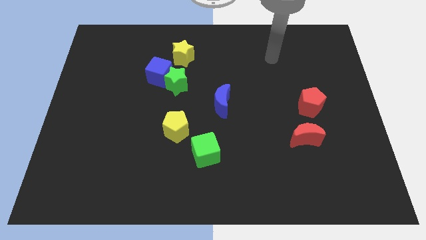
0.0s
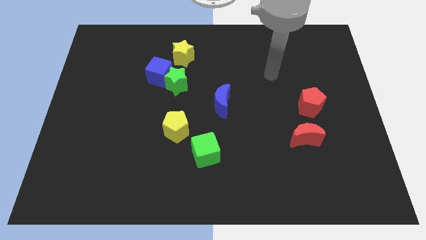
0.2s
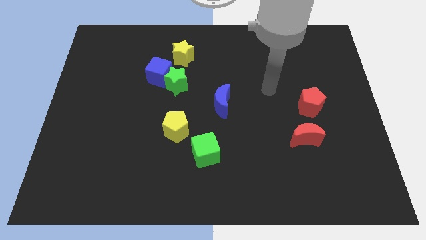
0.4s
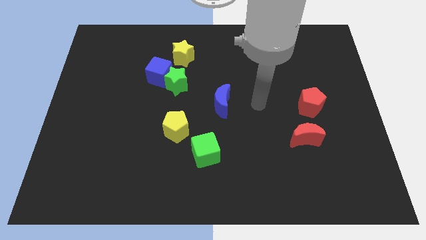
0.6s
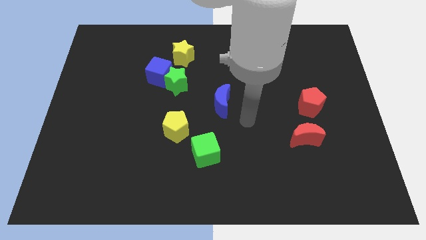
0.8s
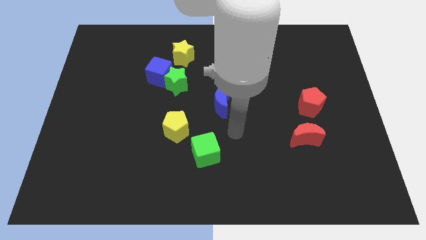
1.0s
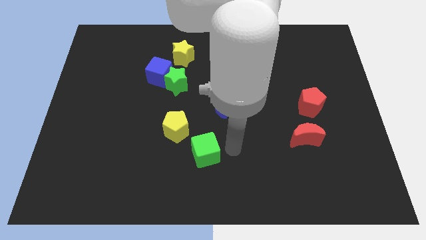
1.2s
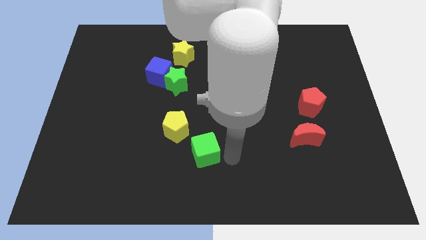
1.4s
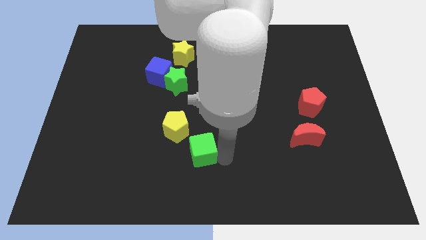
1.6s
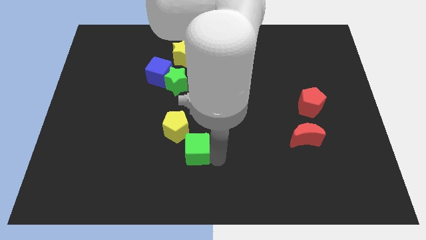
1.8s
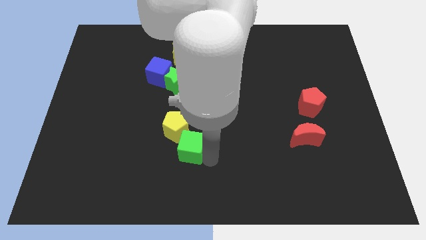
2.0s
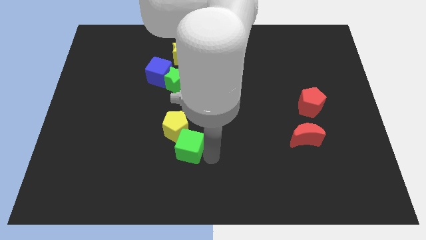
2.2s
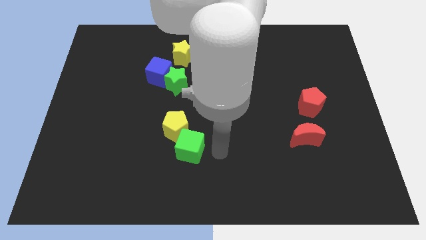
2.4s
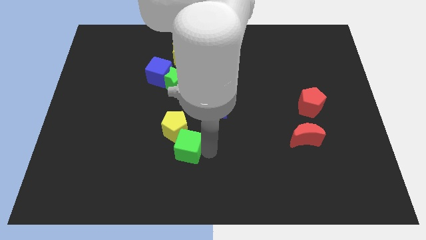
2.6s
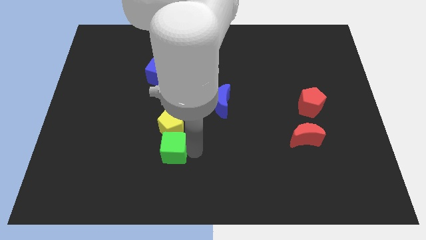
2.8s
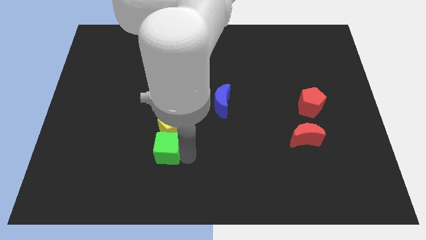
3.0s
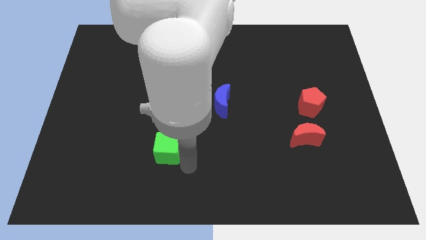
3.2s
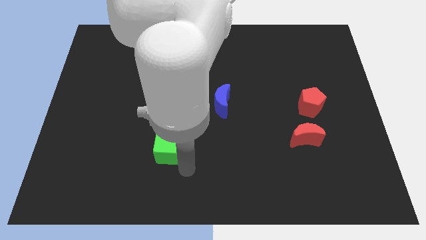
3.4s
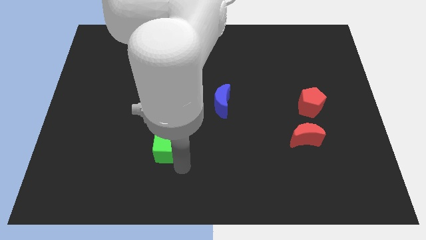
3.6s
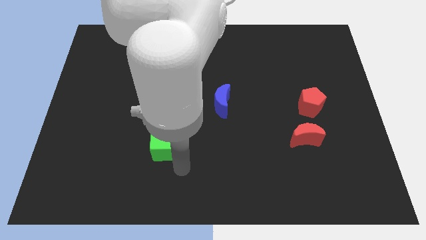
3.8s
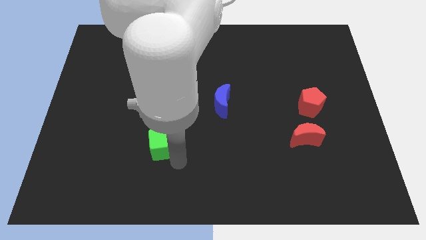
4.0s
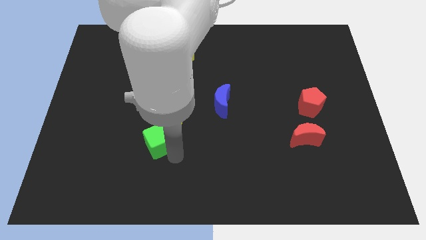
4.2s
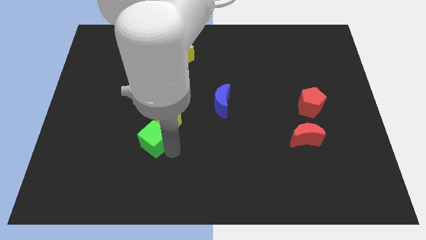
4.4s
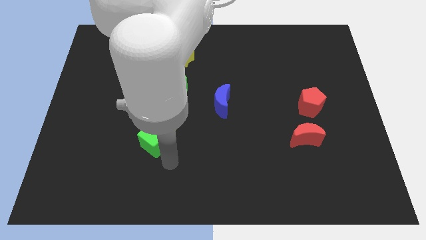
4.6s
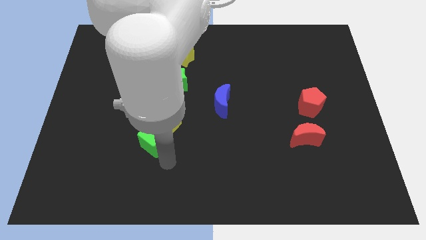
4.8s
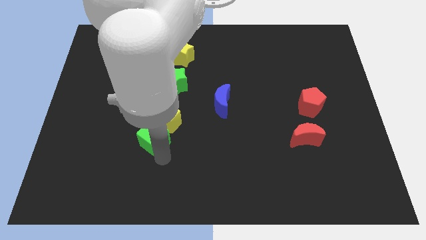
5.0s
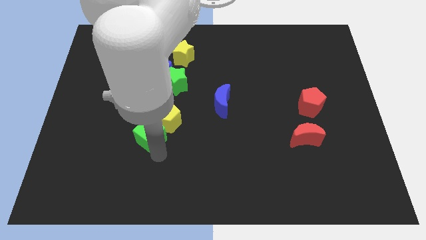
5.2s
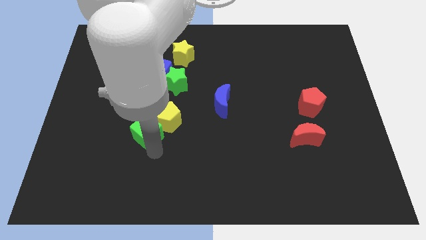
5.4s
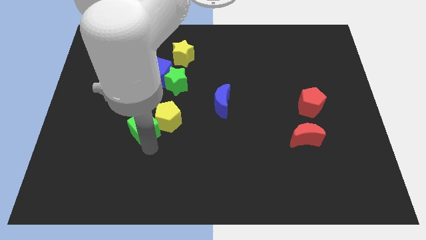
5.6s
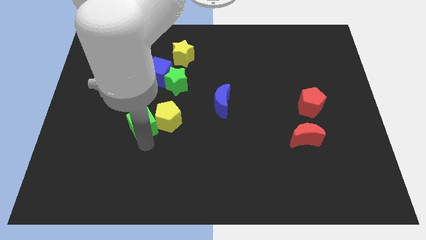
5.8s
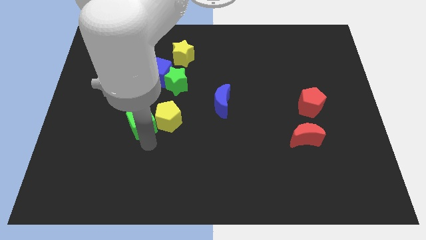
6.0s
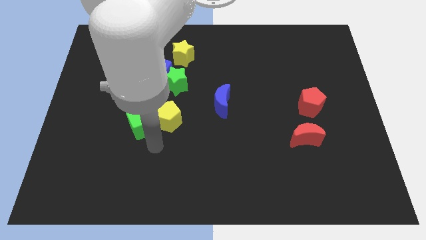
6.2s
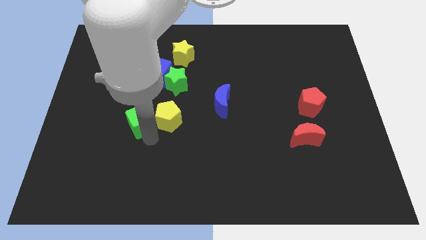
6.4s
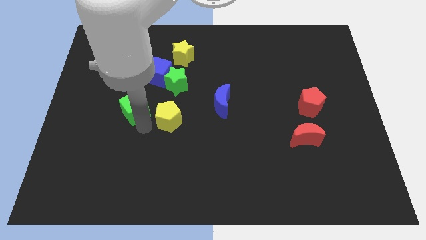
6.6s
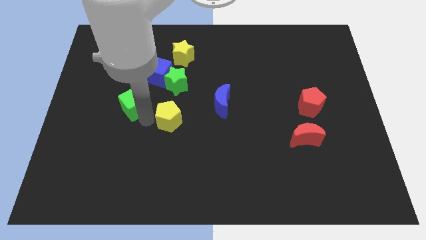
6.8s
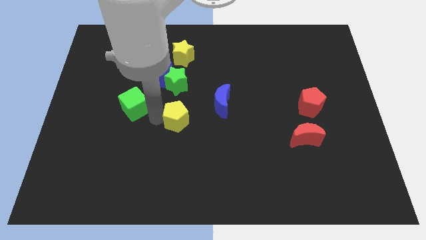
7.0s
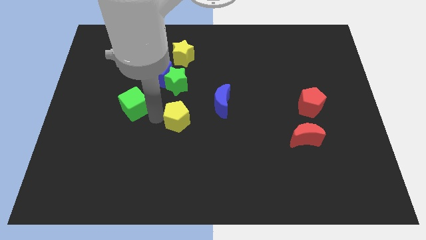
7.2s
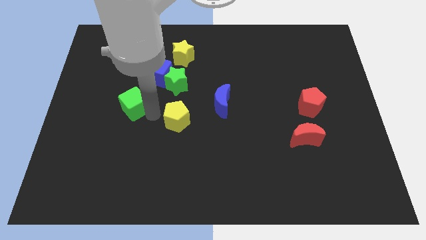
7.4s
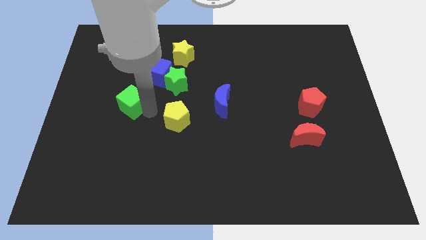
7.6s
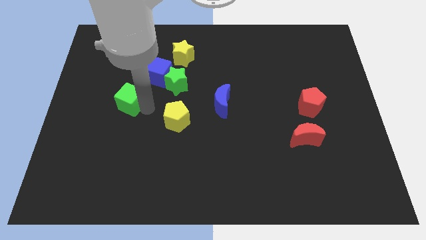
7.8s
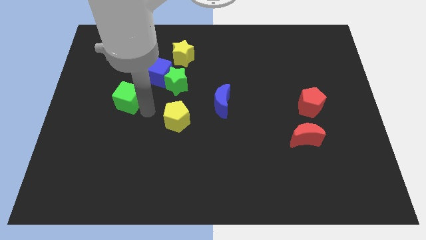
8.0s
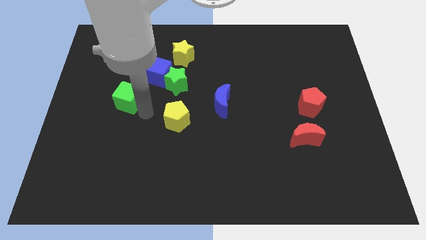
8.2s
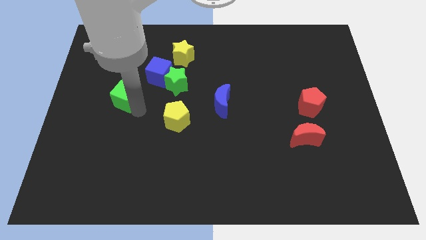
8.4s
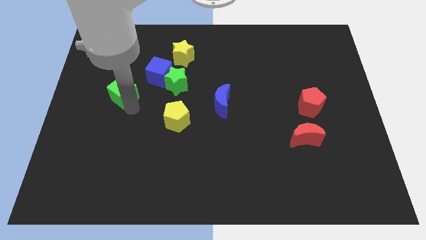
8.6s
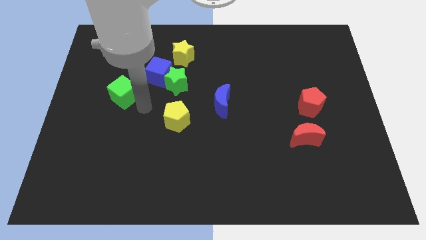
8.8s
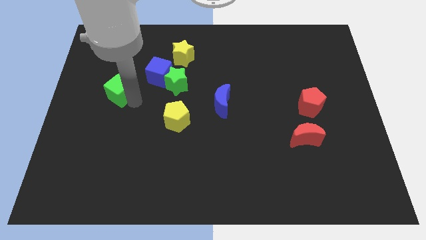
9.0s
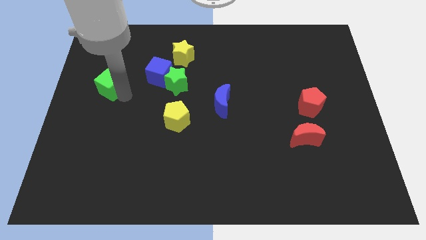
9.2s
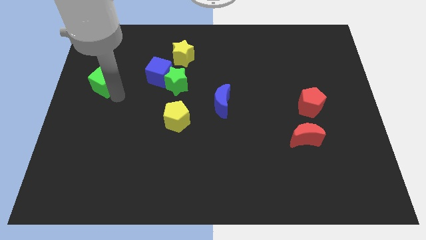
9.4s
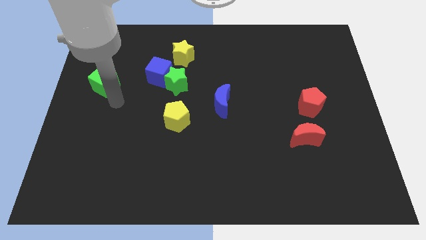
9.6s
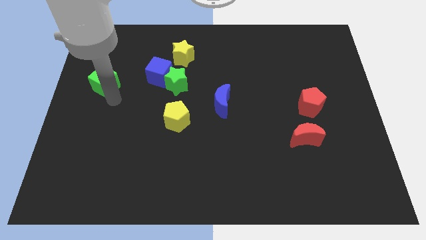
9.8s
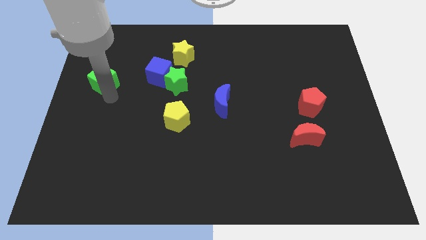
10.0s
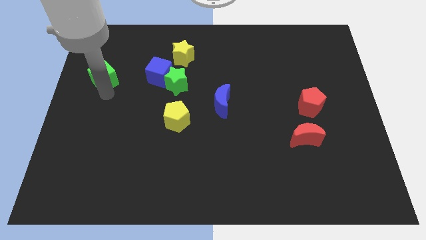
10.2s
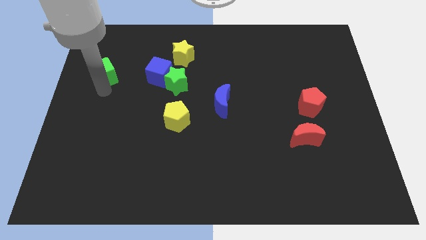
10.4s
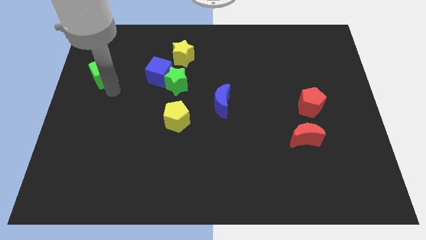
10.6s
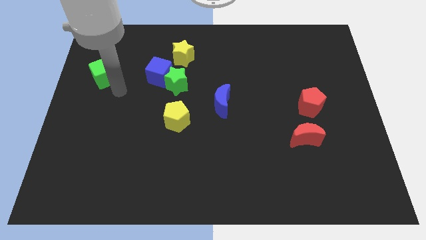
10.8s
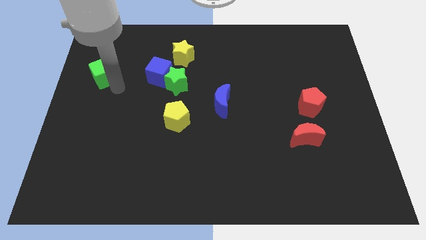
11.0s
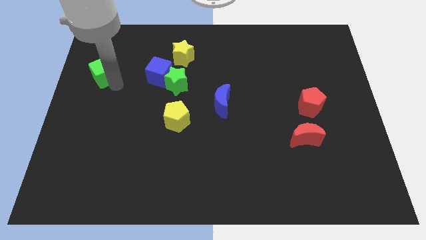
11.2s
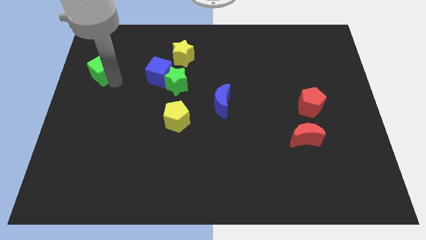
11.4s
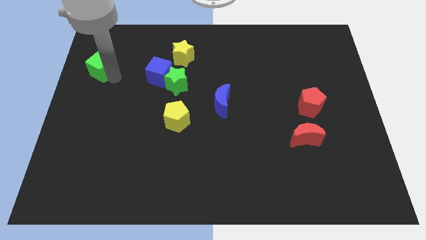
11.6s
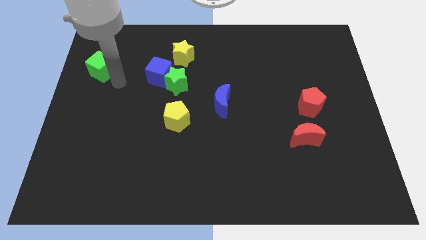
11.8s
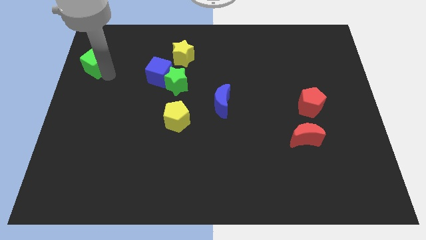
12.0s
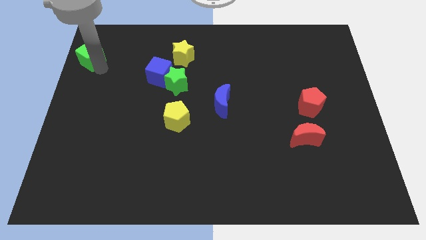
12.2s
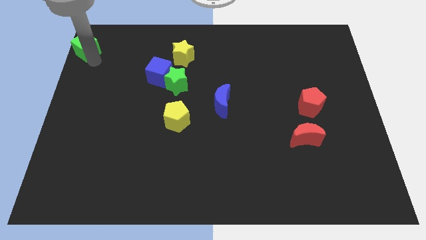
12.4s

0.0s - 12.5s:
push the green cube to the upper left corner
